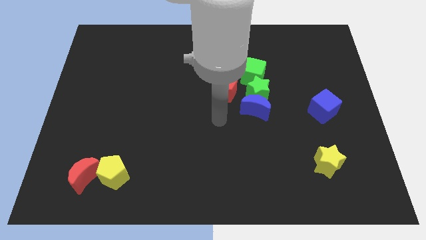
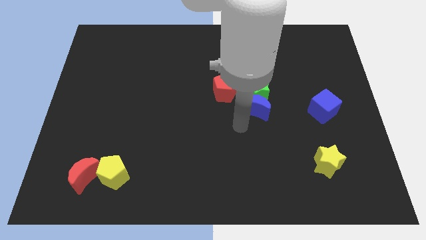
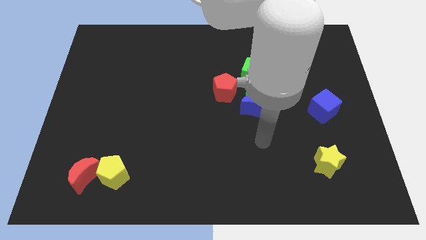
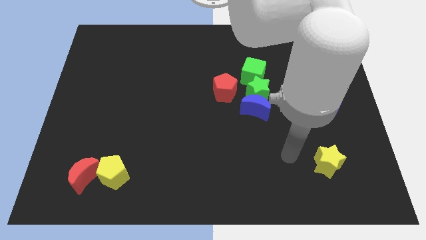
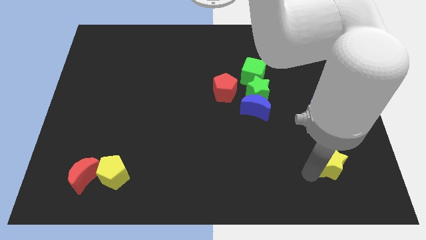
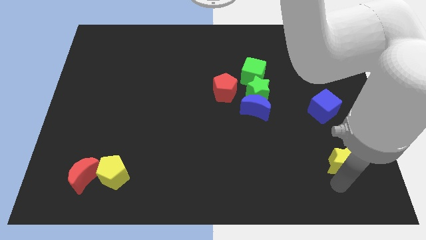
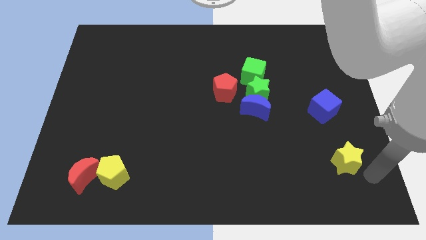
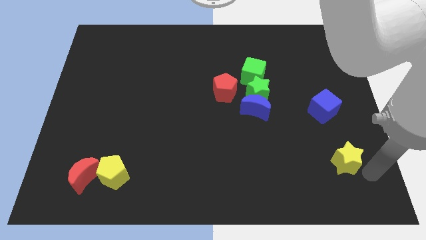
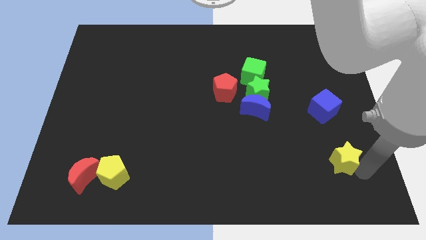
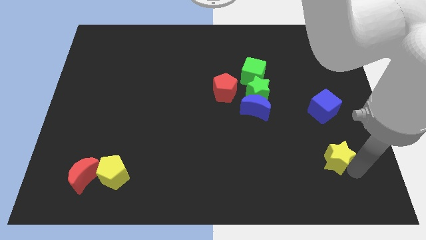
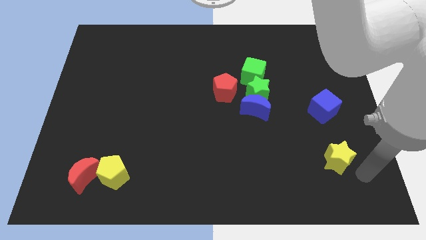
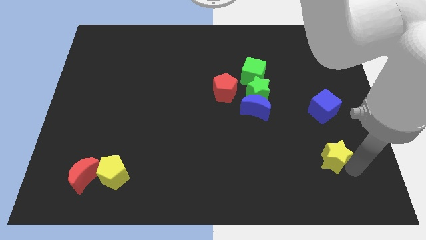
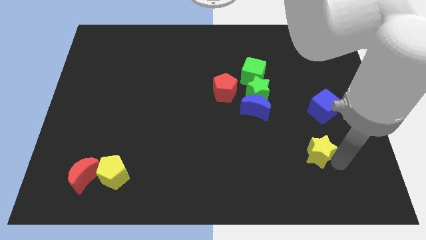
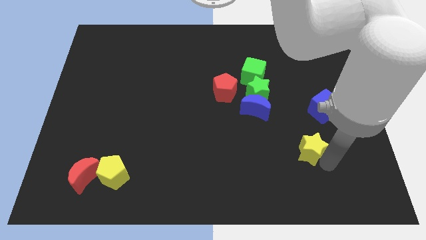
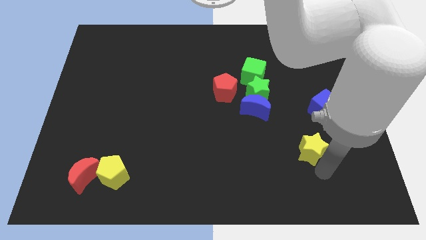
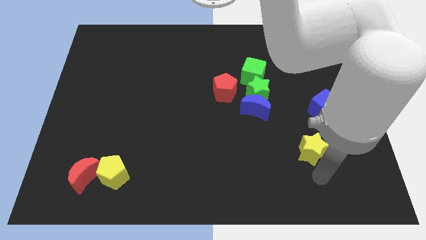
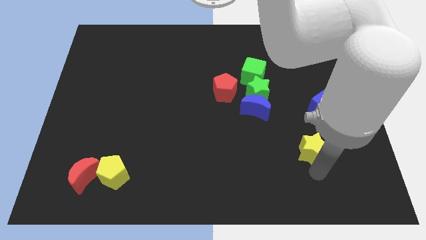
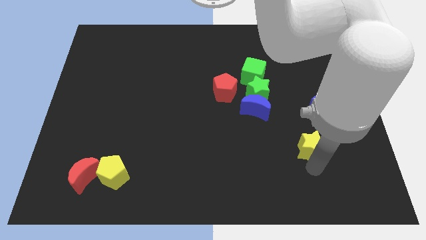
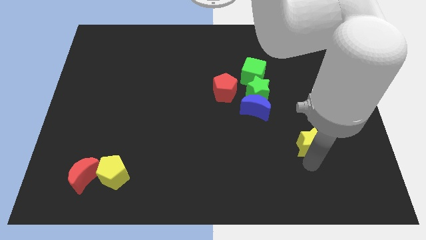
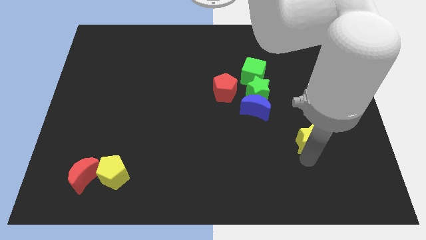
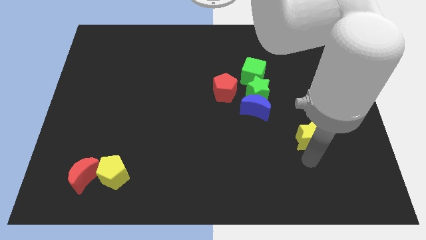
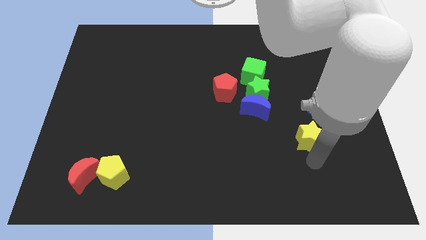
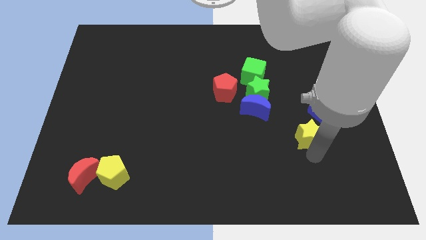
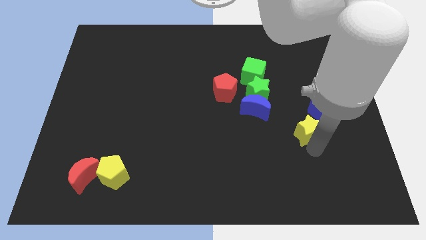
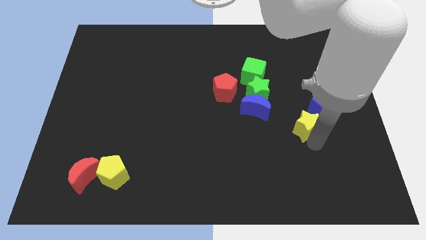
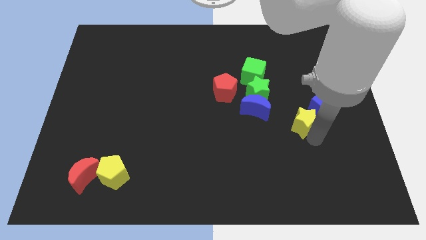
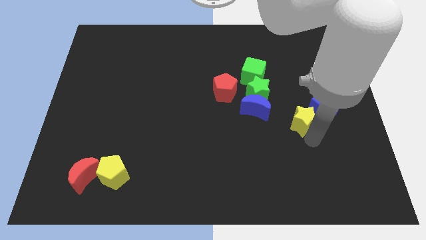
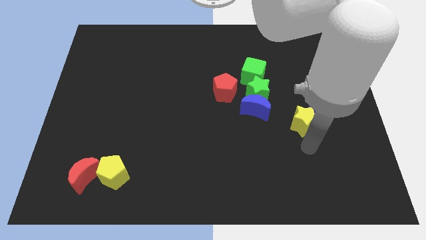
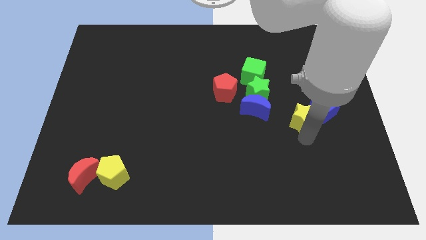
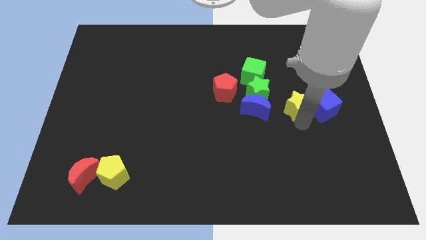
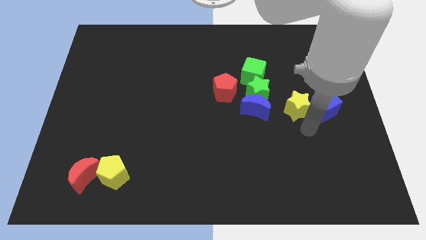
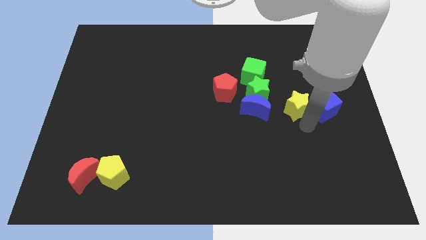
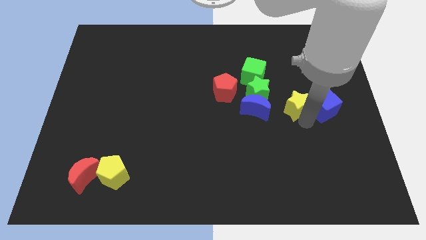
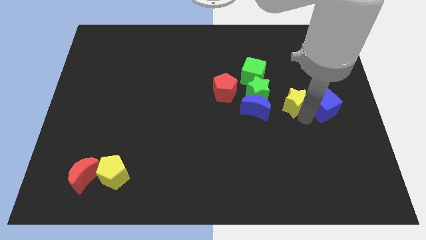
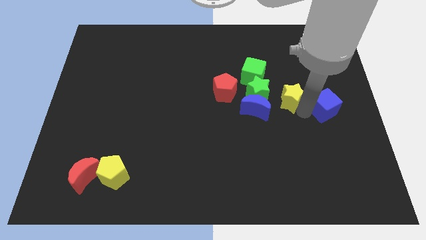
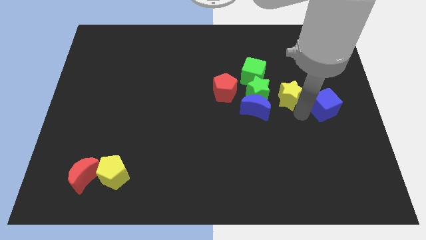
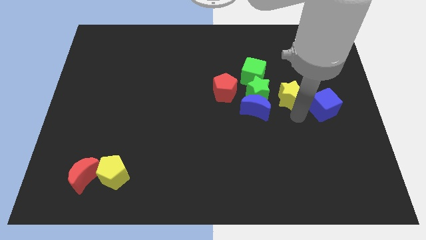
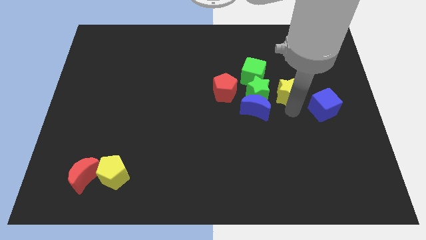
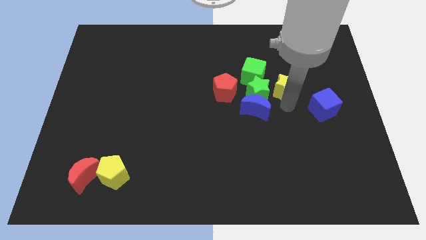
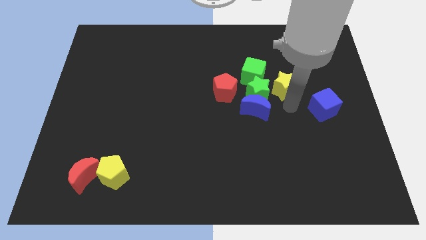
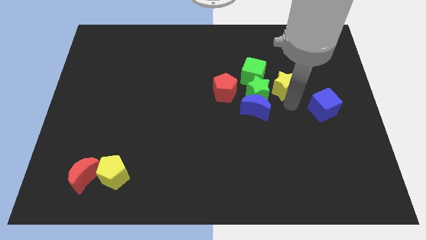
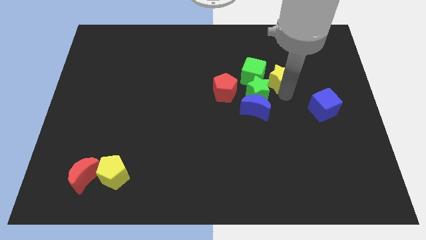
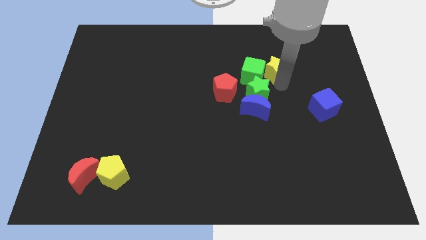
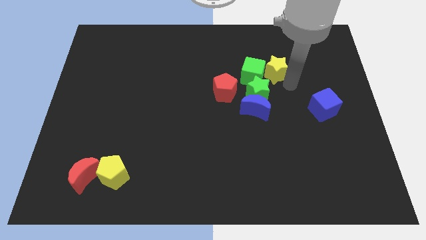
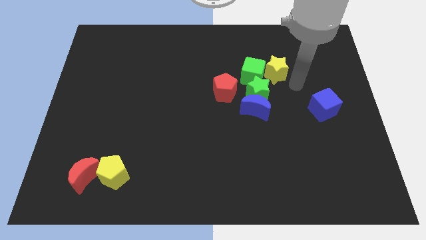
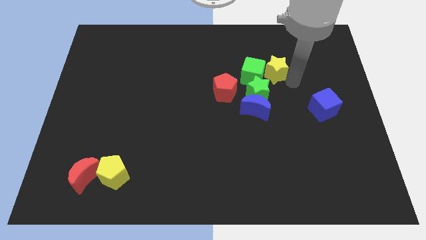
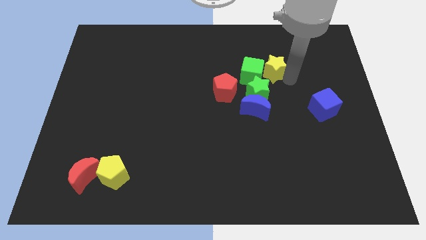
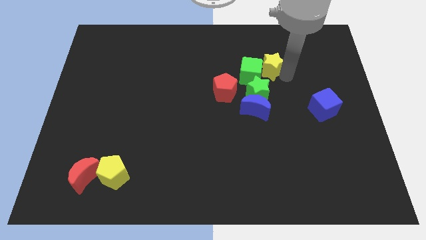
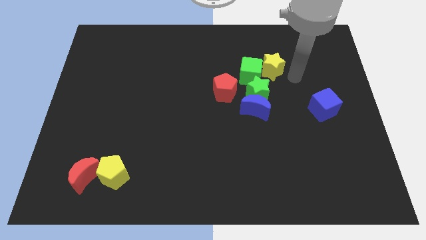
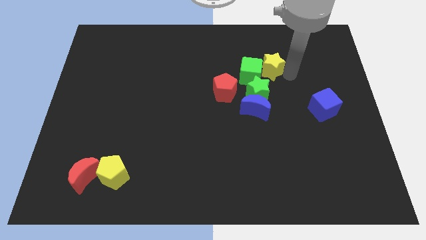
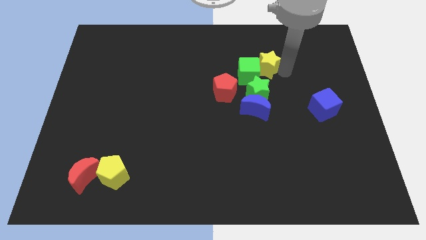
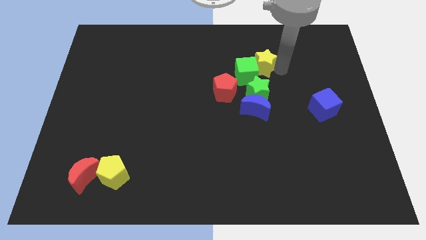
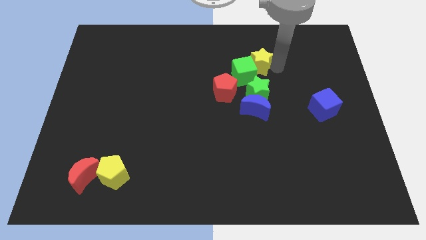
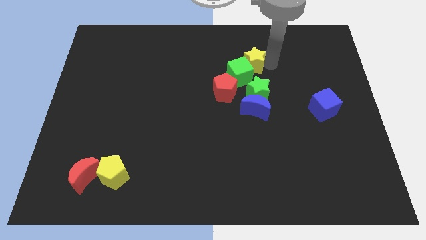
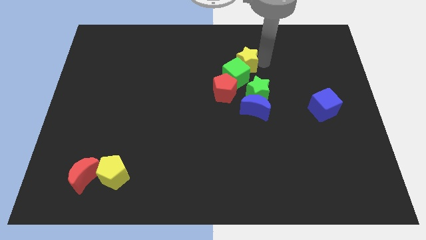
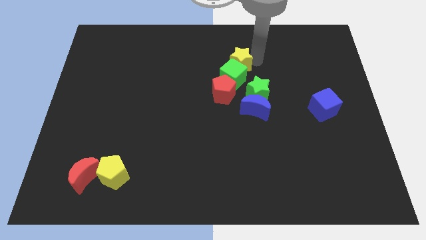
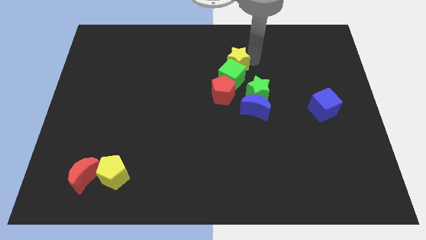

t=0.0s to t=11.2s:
push the yellow star to the top left side of the green cube

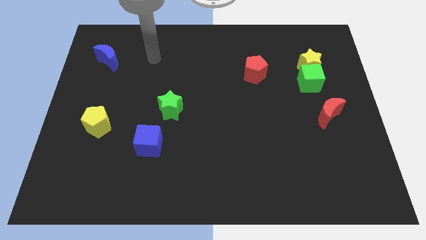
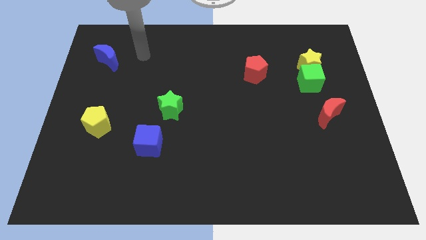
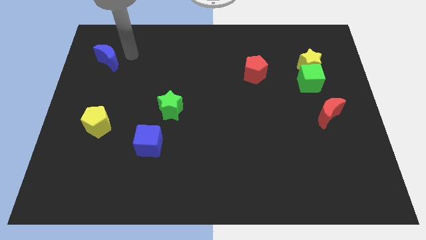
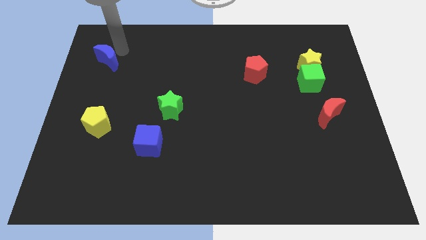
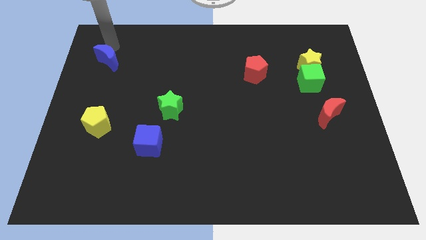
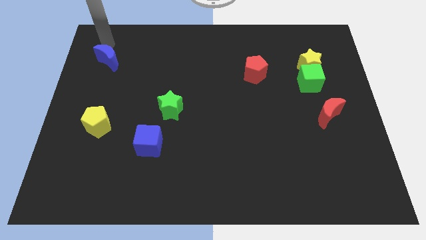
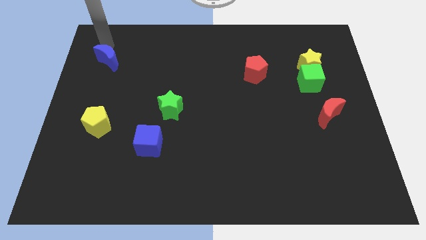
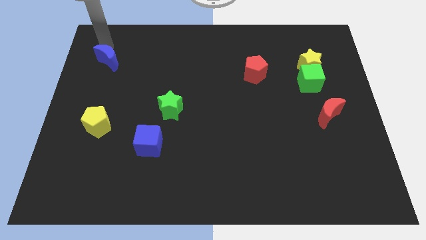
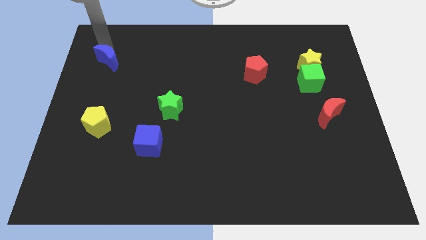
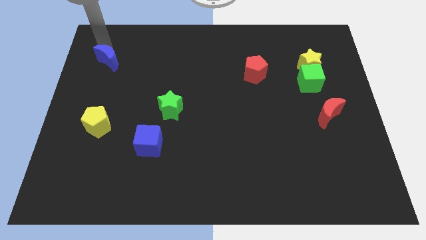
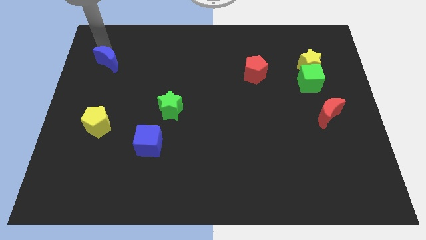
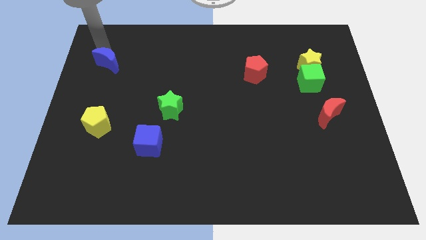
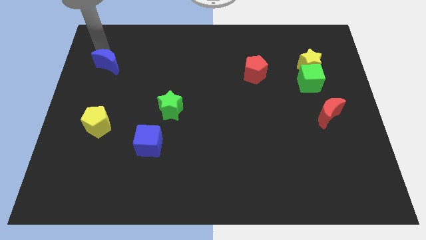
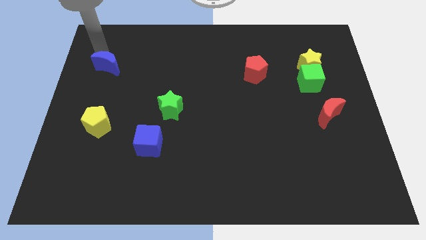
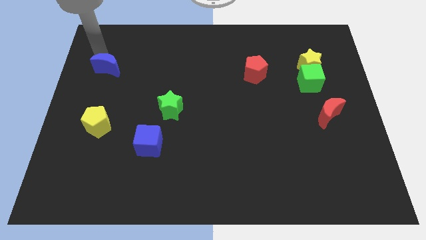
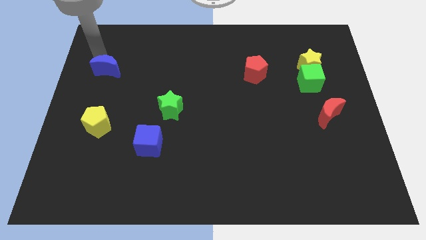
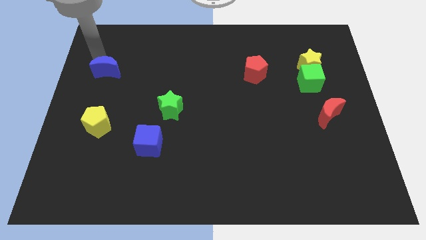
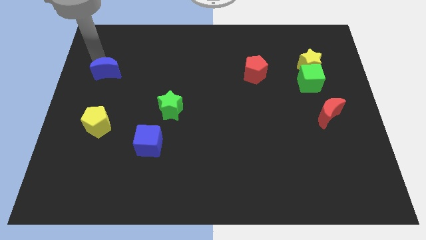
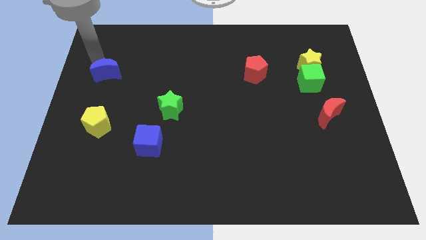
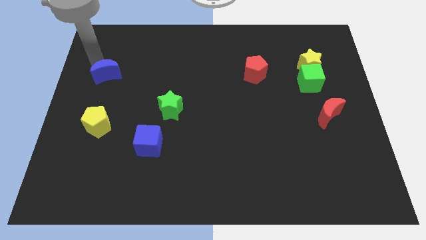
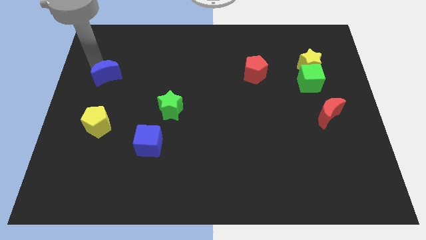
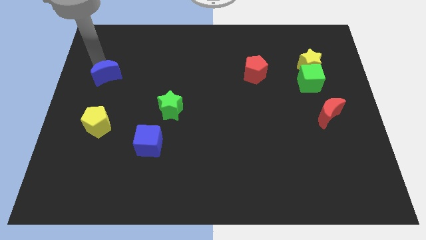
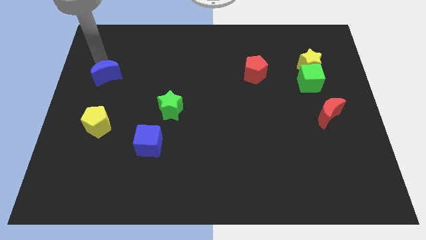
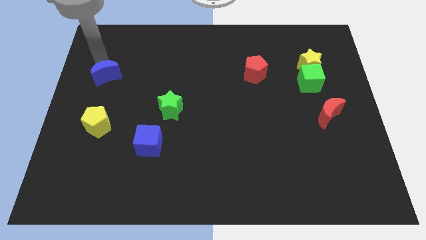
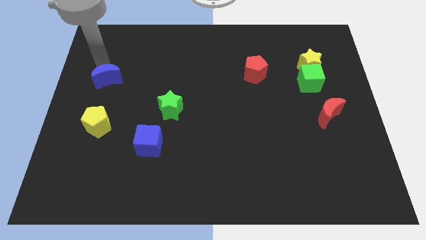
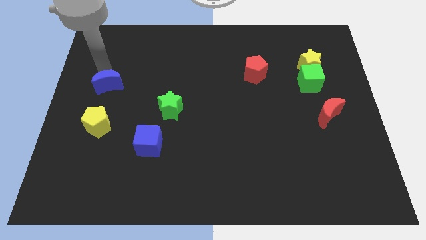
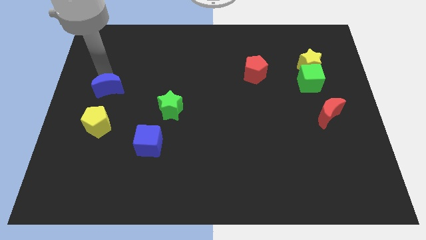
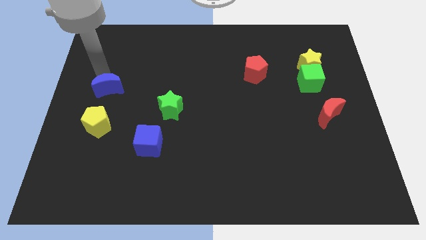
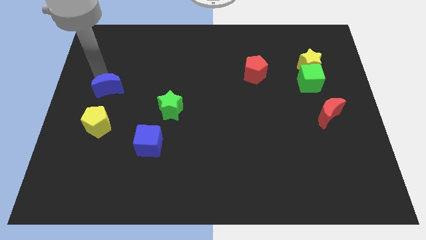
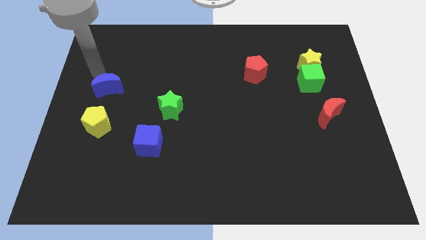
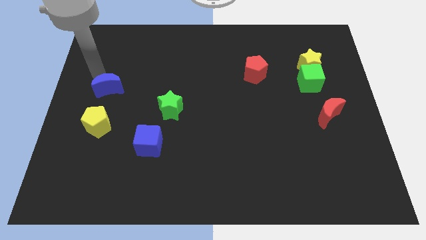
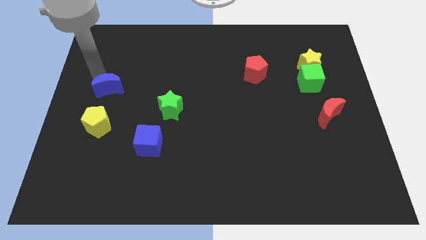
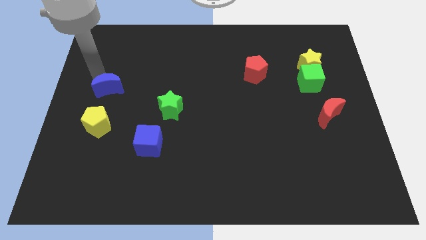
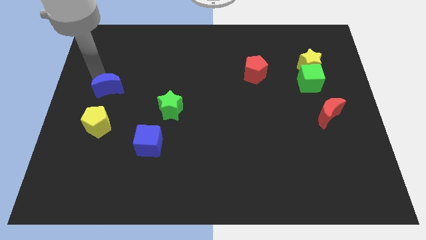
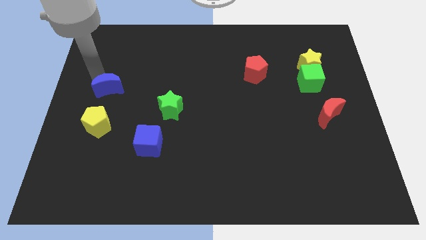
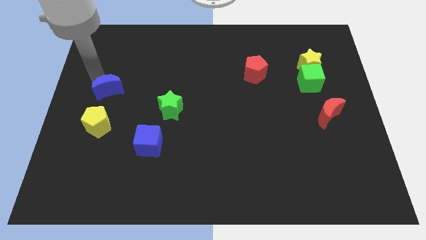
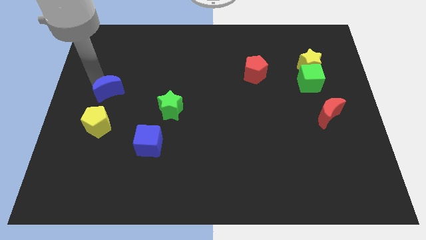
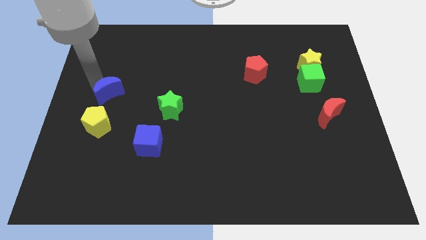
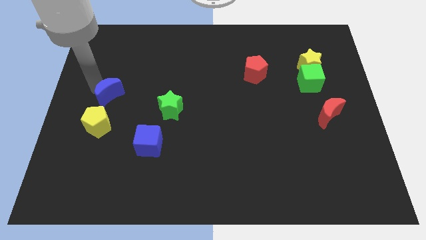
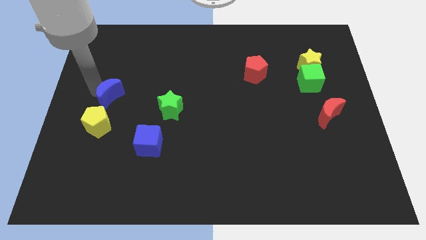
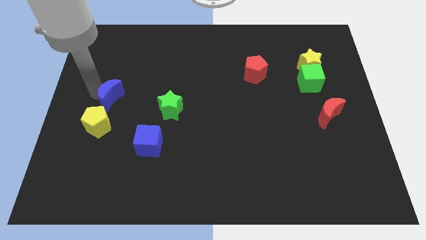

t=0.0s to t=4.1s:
put the blue moon diagonally up and to the right of the yellow pentagon
